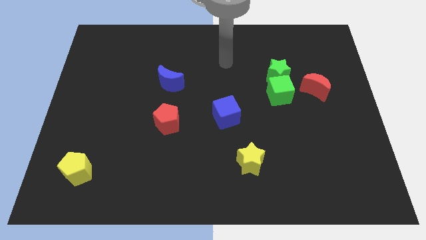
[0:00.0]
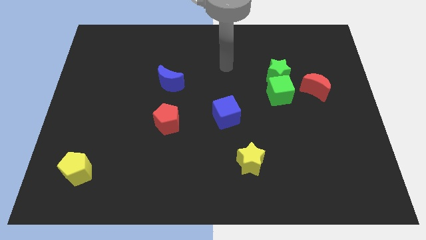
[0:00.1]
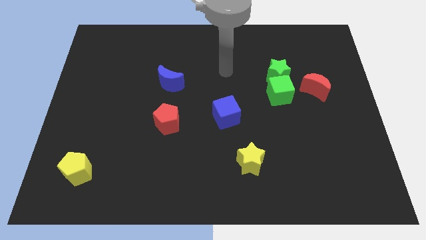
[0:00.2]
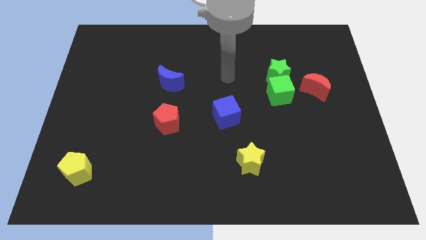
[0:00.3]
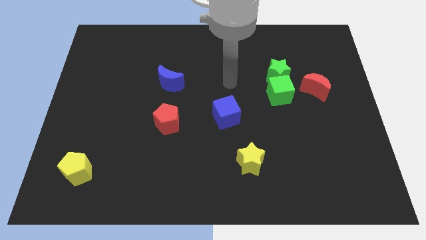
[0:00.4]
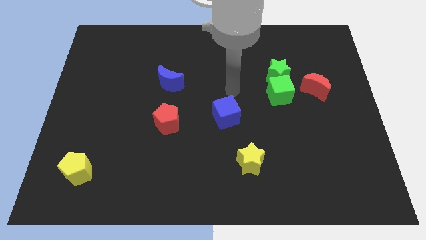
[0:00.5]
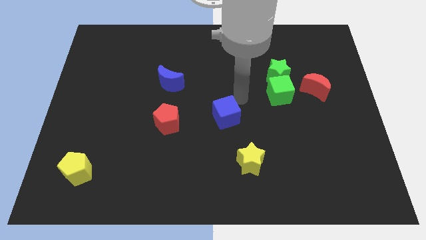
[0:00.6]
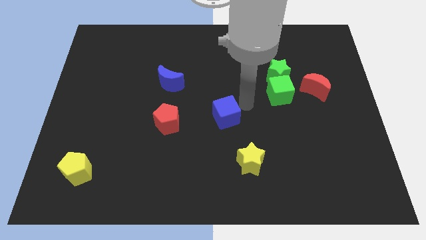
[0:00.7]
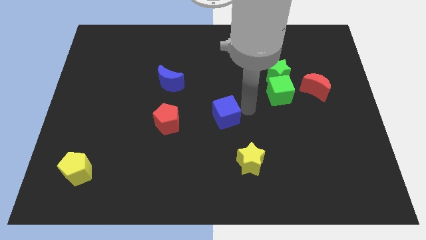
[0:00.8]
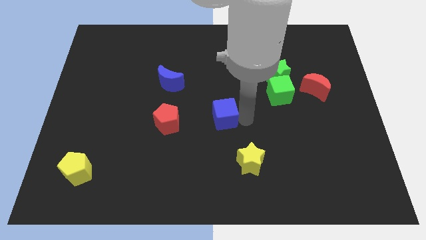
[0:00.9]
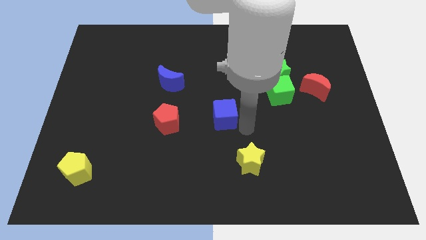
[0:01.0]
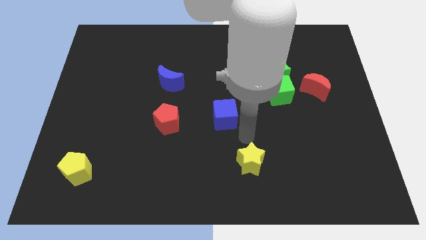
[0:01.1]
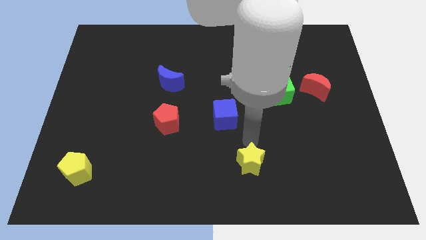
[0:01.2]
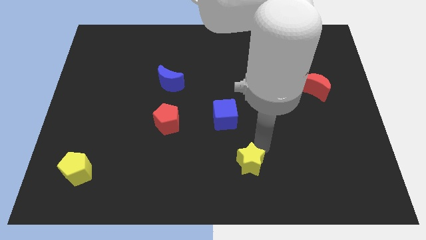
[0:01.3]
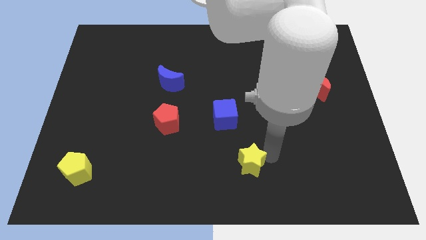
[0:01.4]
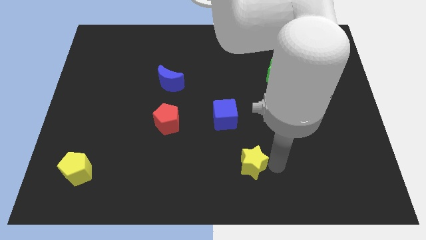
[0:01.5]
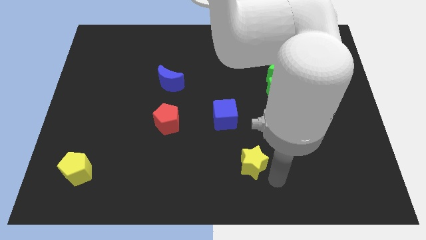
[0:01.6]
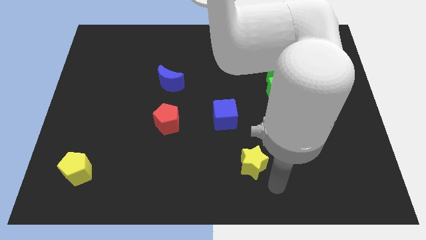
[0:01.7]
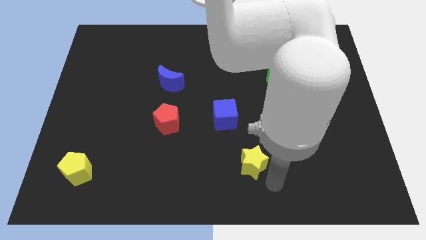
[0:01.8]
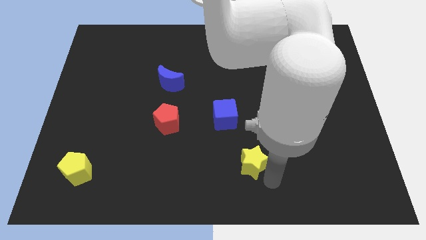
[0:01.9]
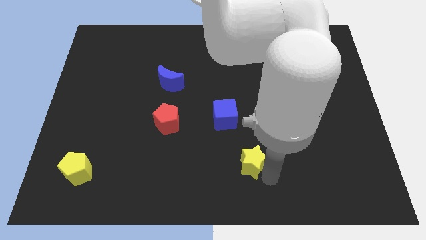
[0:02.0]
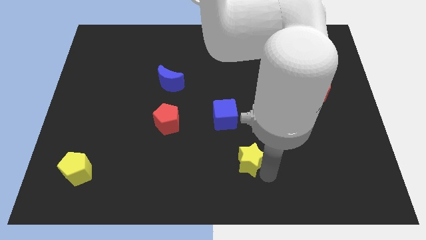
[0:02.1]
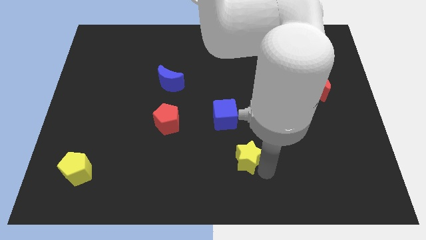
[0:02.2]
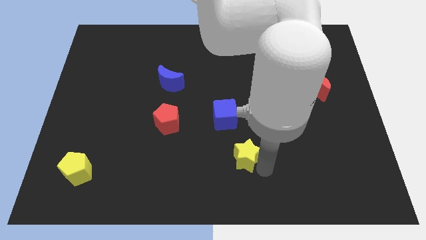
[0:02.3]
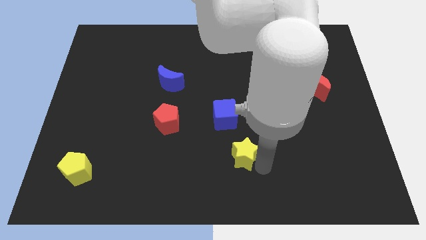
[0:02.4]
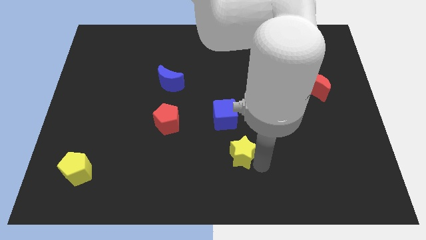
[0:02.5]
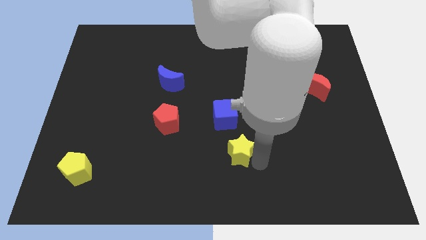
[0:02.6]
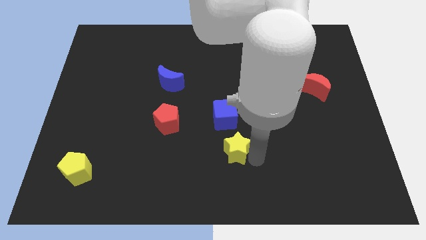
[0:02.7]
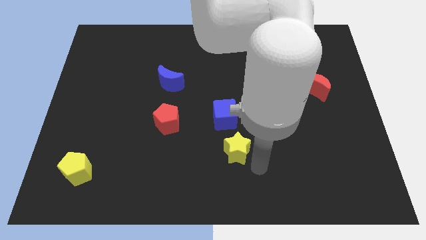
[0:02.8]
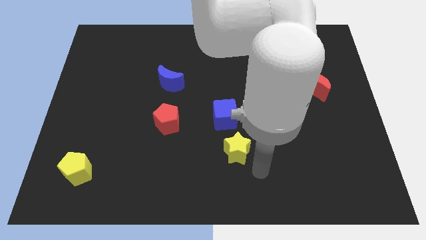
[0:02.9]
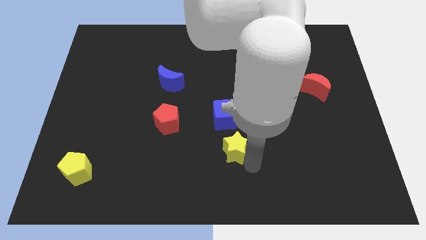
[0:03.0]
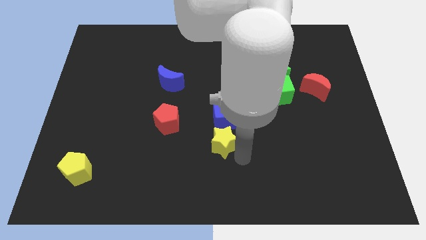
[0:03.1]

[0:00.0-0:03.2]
slightly move the yellow star diagonally upwards and to the left

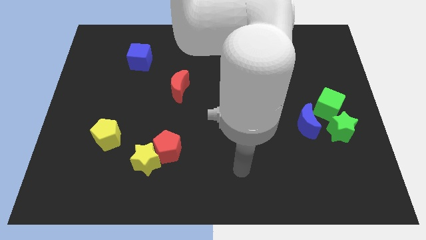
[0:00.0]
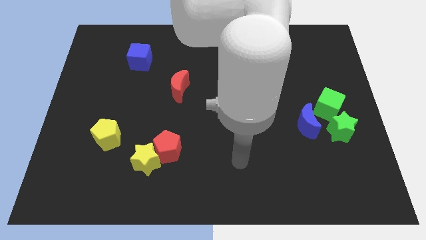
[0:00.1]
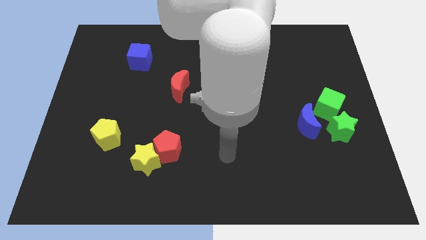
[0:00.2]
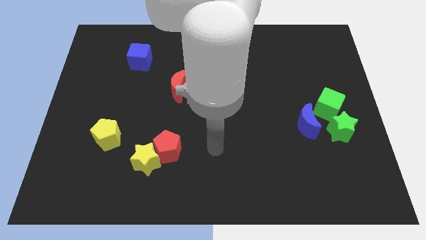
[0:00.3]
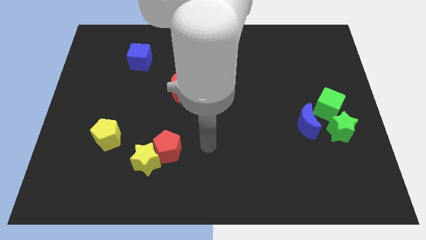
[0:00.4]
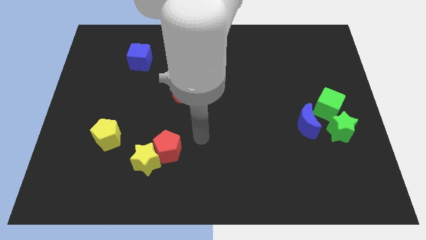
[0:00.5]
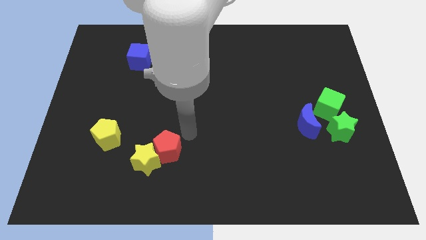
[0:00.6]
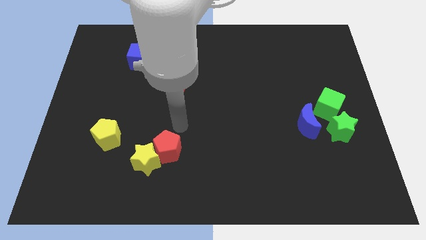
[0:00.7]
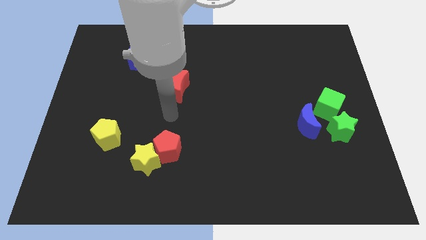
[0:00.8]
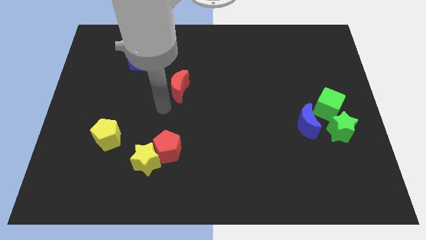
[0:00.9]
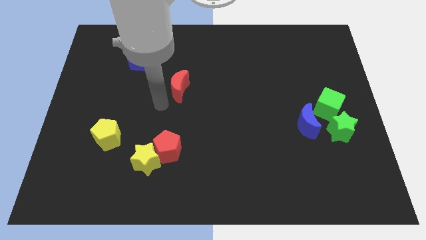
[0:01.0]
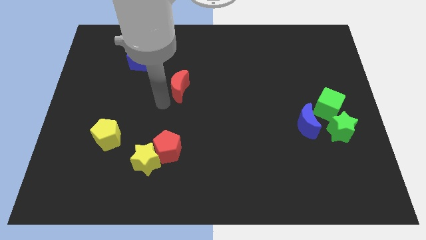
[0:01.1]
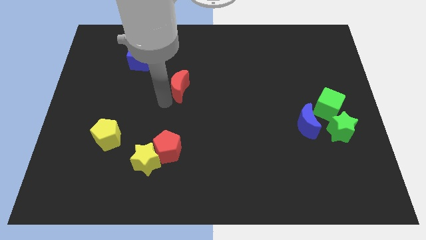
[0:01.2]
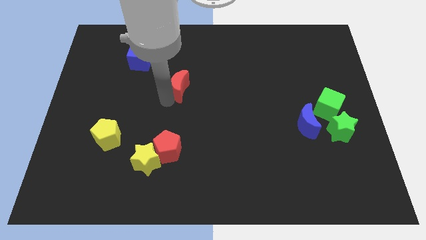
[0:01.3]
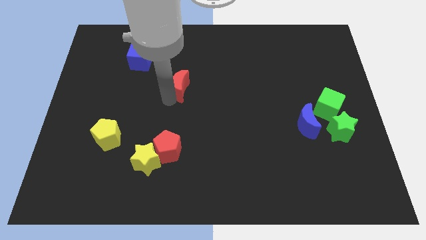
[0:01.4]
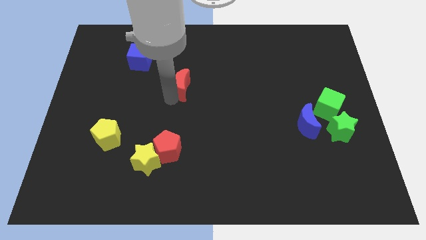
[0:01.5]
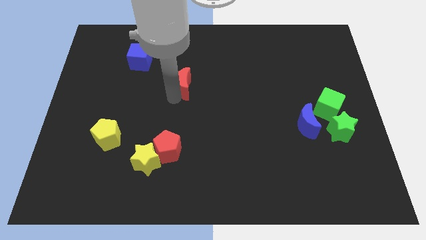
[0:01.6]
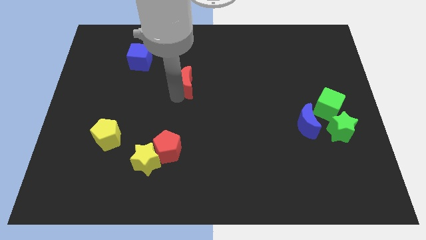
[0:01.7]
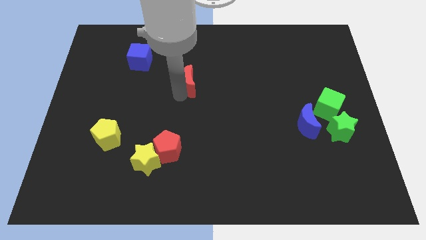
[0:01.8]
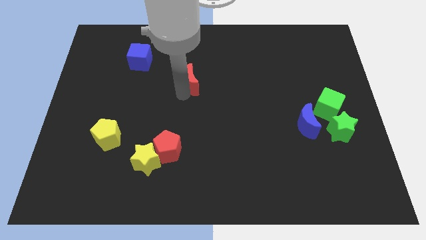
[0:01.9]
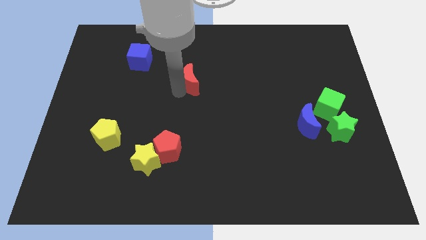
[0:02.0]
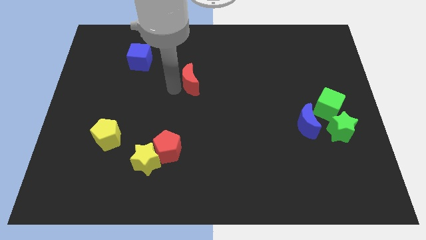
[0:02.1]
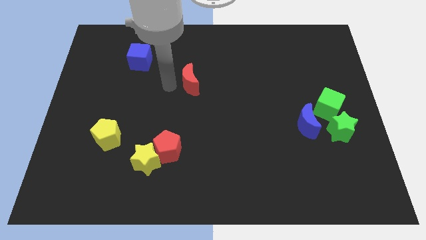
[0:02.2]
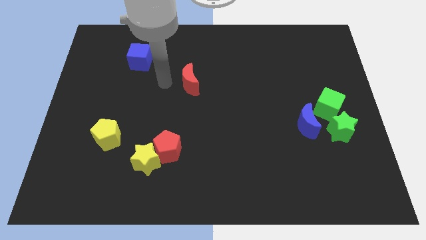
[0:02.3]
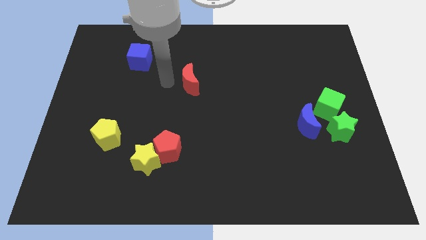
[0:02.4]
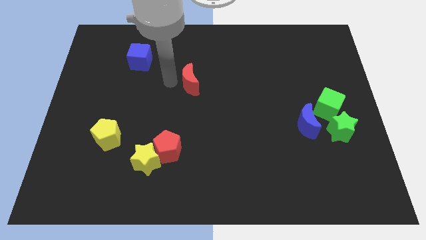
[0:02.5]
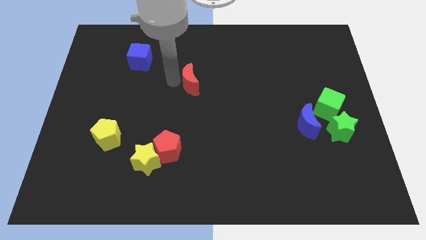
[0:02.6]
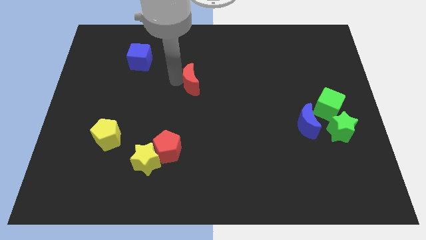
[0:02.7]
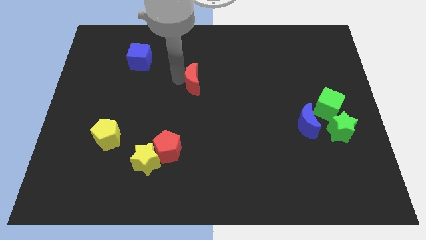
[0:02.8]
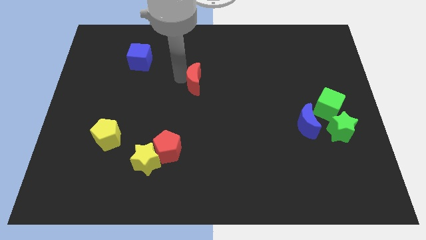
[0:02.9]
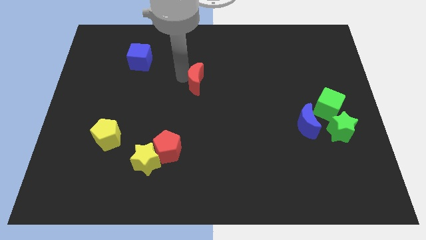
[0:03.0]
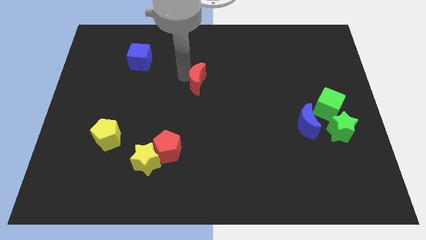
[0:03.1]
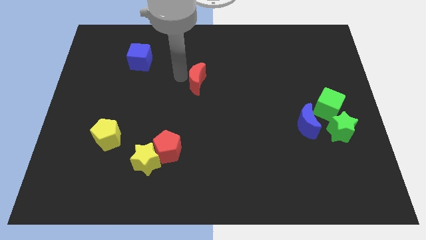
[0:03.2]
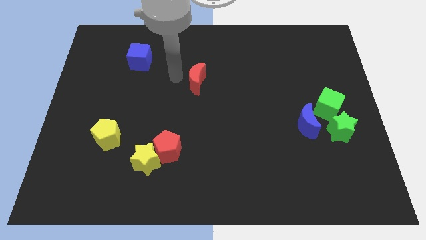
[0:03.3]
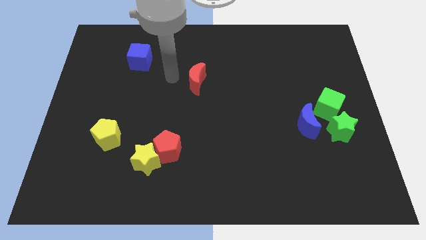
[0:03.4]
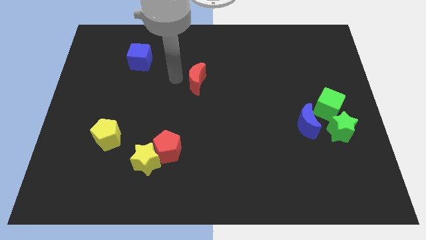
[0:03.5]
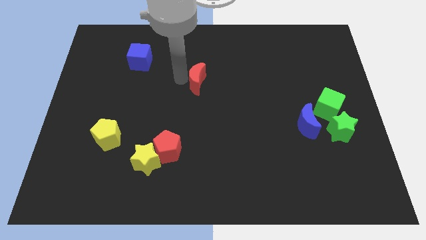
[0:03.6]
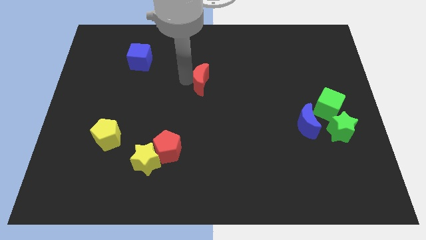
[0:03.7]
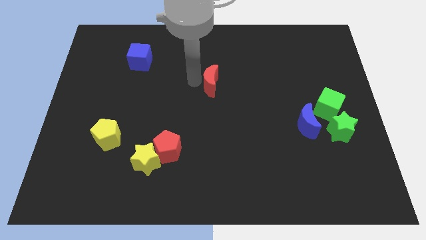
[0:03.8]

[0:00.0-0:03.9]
slide the red moon a little bit to the right

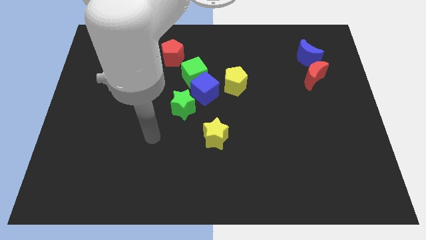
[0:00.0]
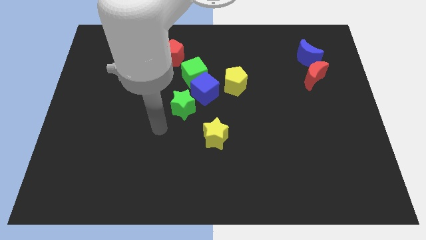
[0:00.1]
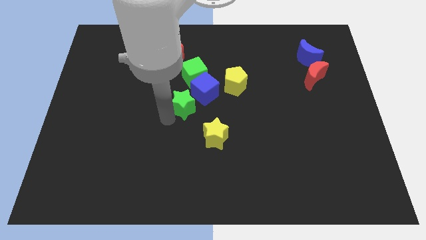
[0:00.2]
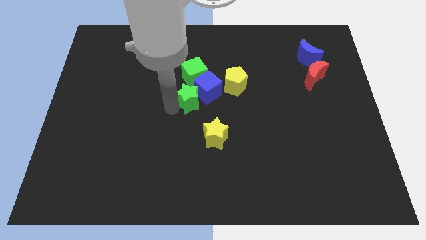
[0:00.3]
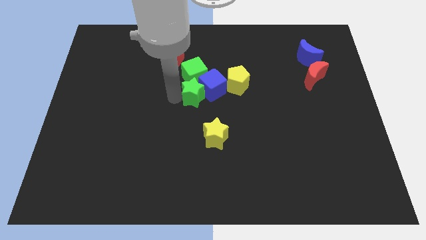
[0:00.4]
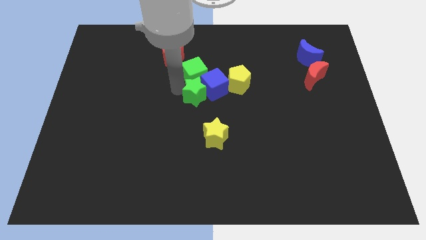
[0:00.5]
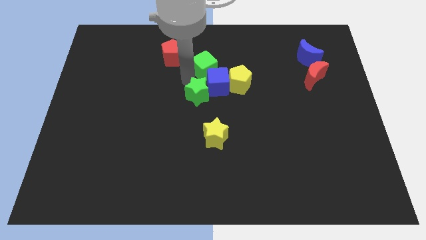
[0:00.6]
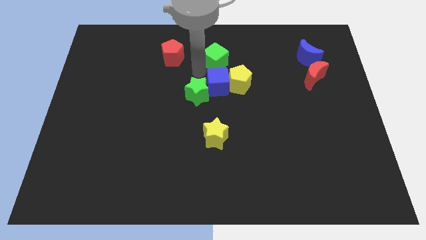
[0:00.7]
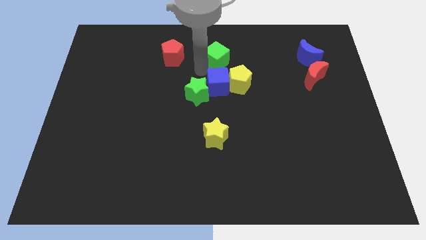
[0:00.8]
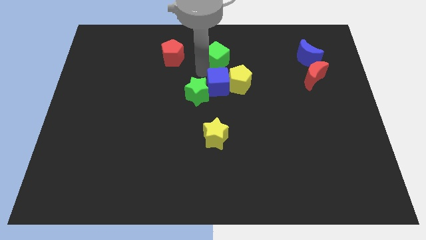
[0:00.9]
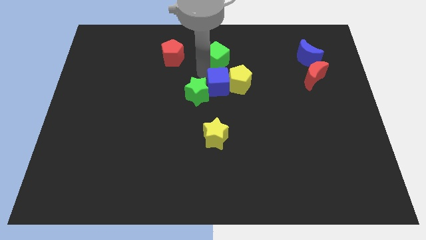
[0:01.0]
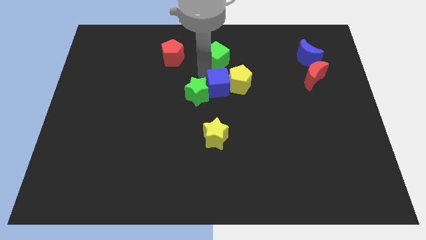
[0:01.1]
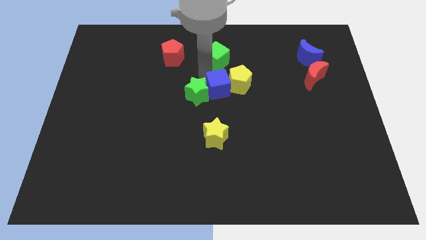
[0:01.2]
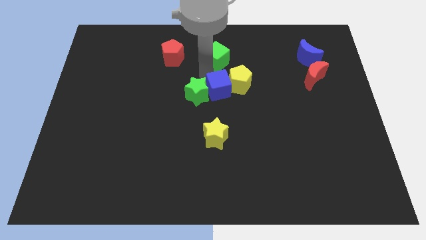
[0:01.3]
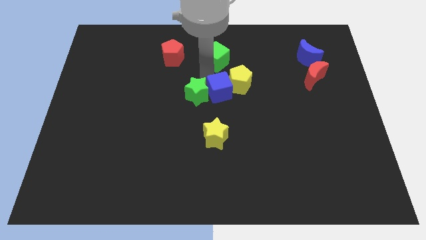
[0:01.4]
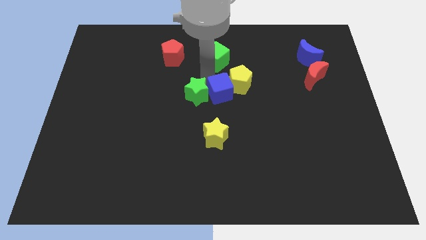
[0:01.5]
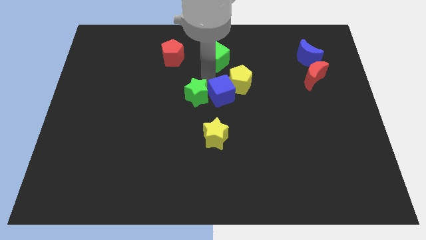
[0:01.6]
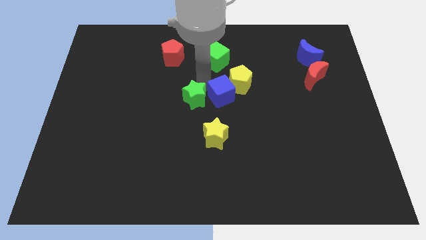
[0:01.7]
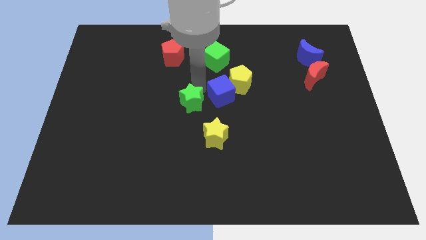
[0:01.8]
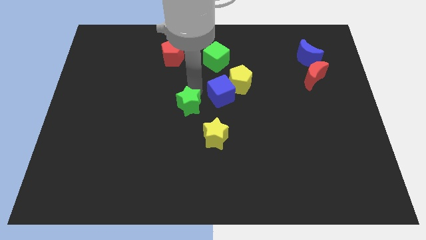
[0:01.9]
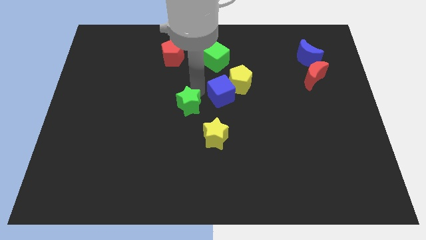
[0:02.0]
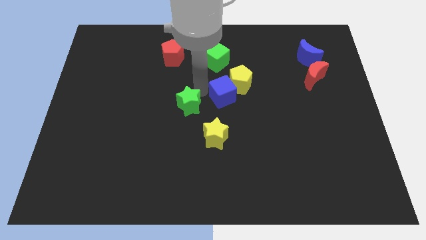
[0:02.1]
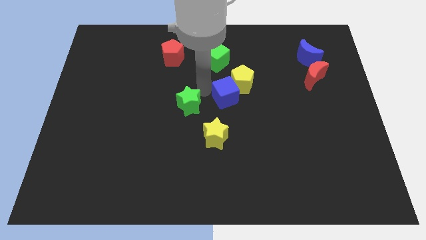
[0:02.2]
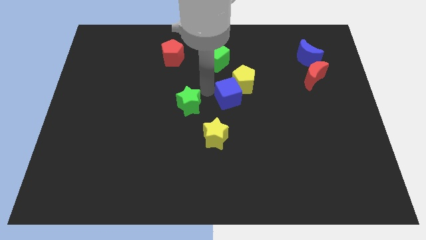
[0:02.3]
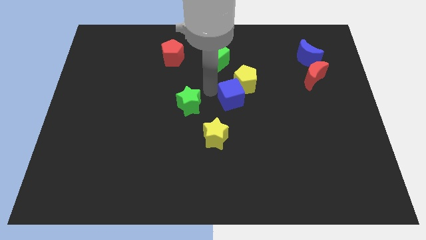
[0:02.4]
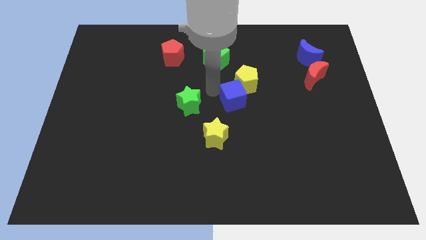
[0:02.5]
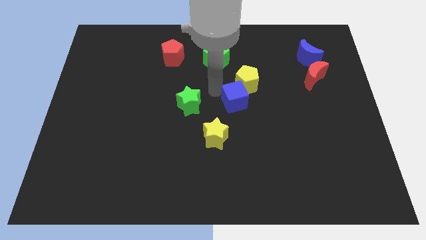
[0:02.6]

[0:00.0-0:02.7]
move the blue cube to the right a bit
